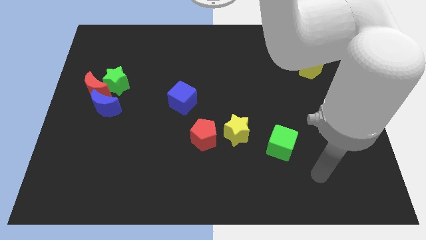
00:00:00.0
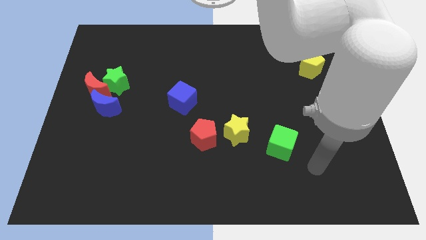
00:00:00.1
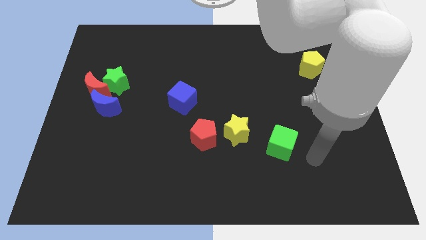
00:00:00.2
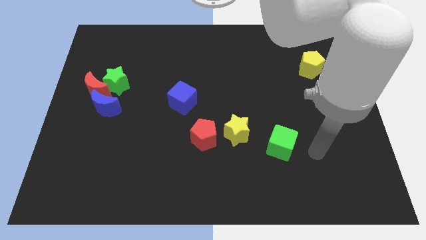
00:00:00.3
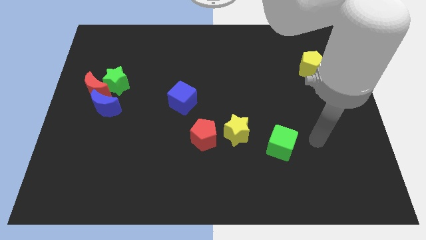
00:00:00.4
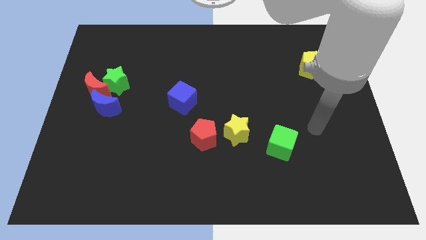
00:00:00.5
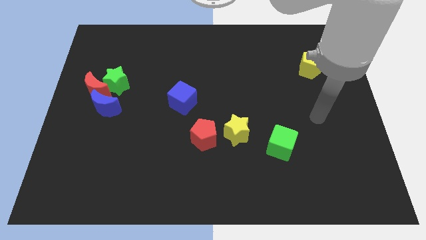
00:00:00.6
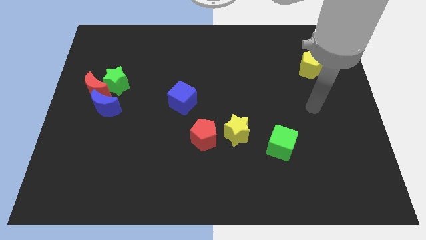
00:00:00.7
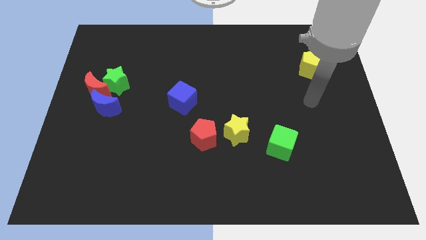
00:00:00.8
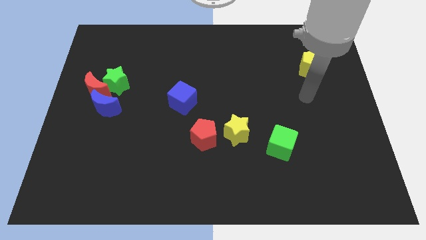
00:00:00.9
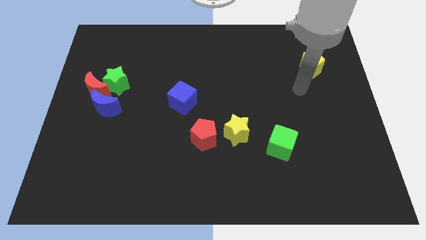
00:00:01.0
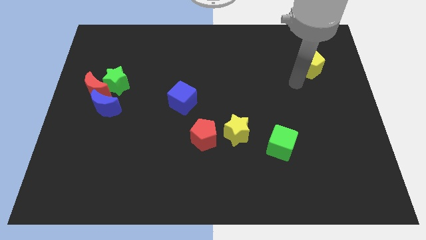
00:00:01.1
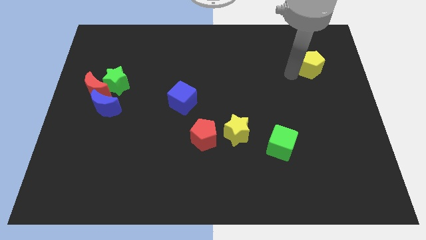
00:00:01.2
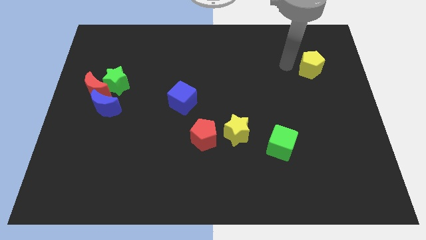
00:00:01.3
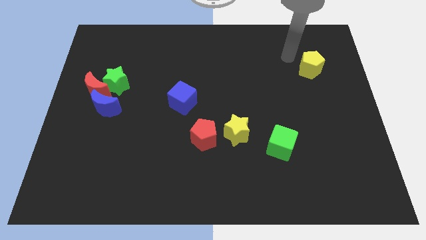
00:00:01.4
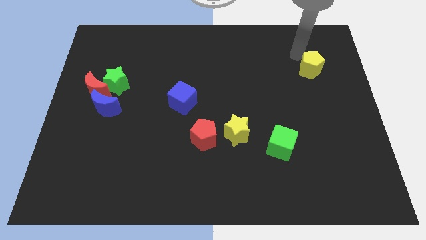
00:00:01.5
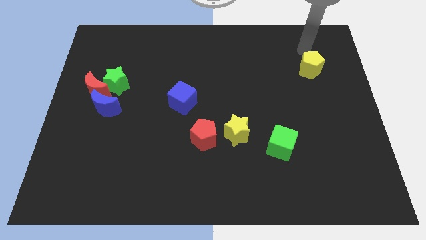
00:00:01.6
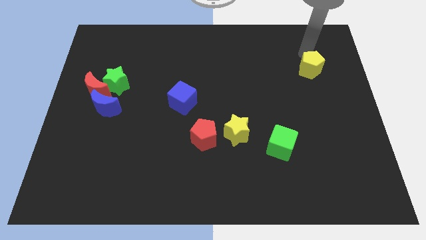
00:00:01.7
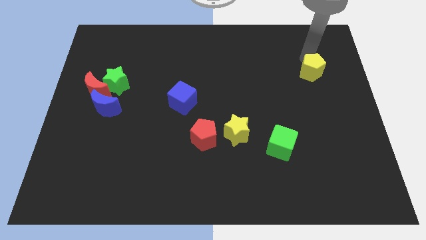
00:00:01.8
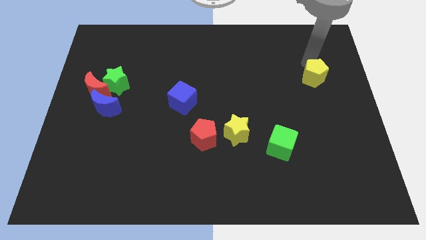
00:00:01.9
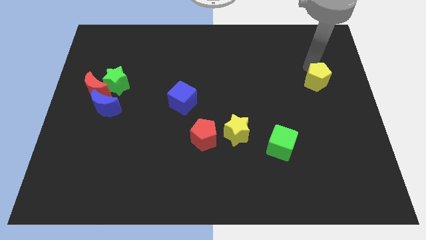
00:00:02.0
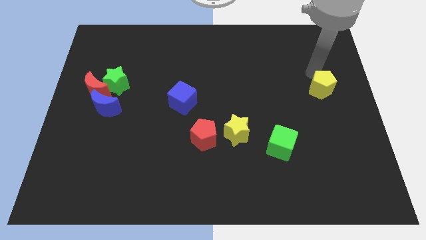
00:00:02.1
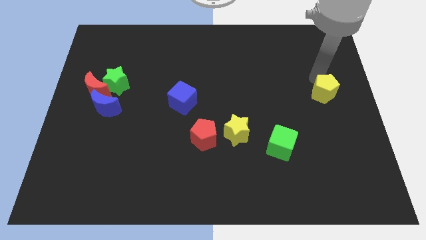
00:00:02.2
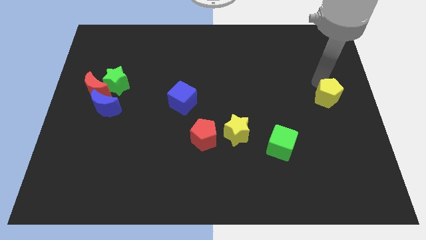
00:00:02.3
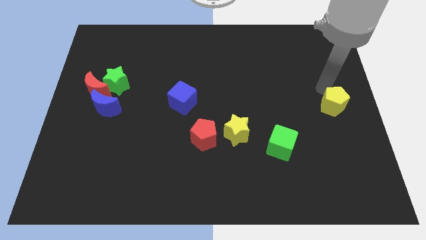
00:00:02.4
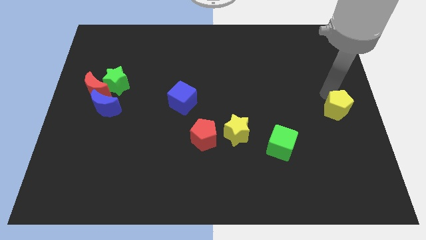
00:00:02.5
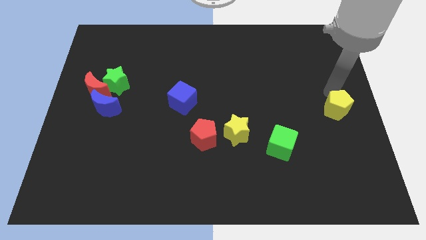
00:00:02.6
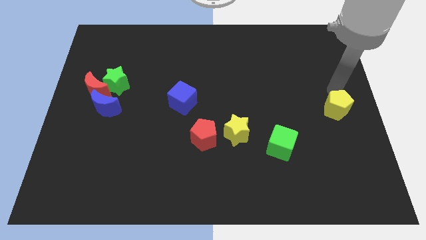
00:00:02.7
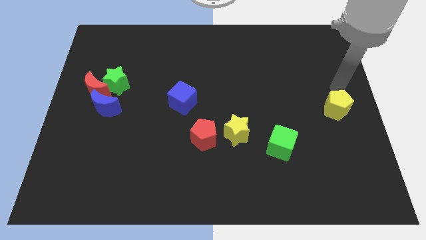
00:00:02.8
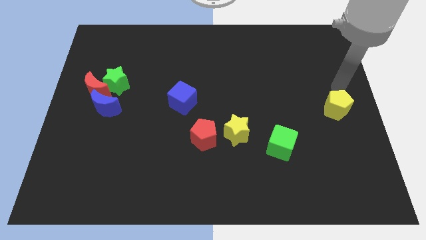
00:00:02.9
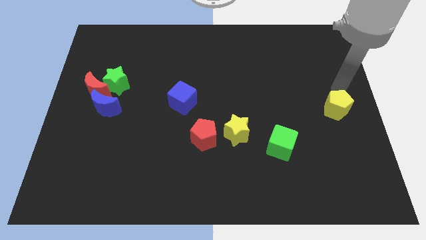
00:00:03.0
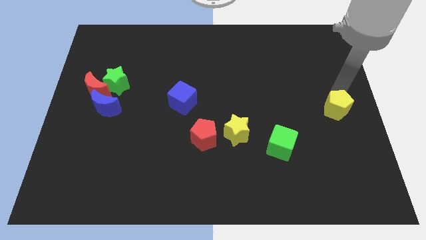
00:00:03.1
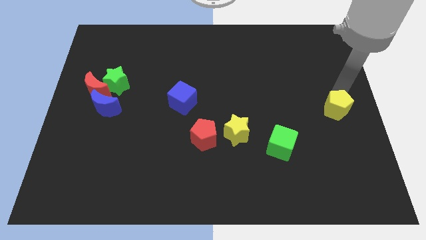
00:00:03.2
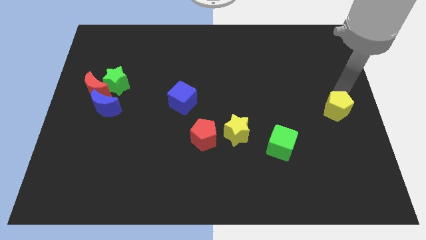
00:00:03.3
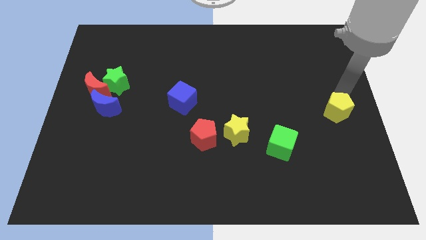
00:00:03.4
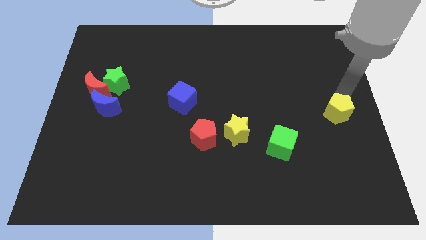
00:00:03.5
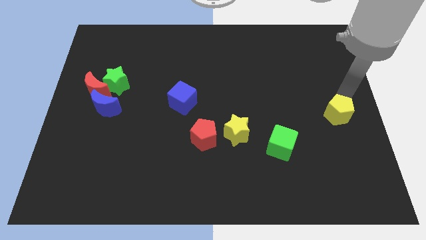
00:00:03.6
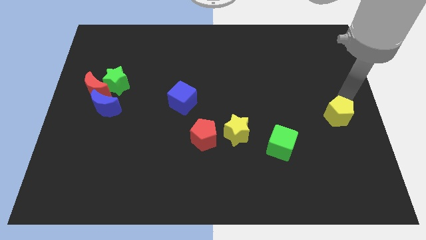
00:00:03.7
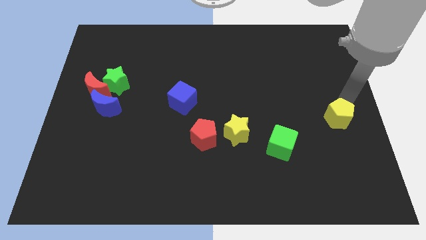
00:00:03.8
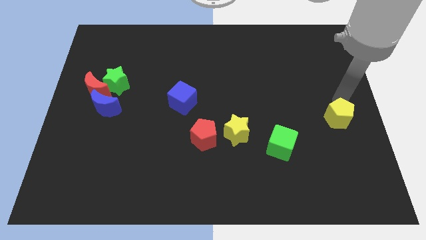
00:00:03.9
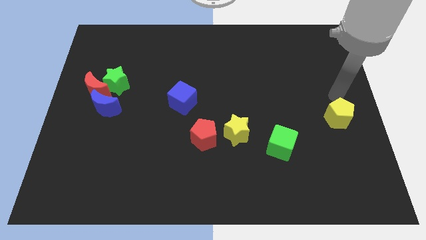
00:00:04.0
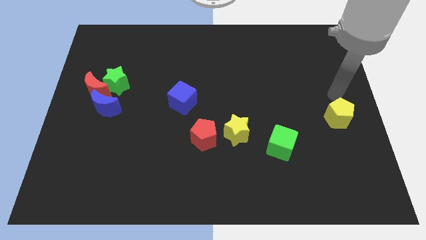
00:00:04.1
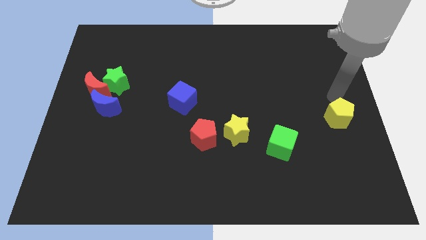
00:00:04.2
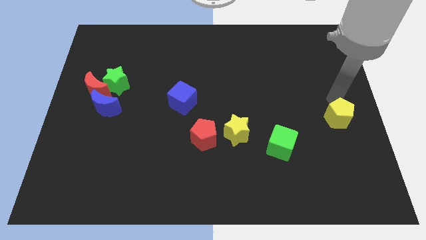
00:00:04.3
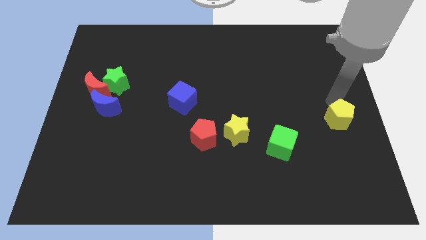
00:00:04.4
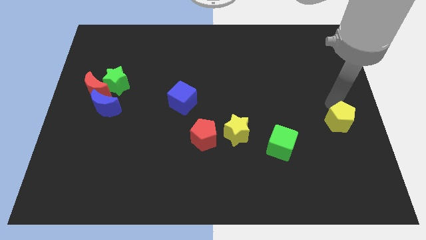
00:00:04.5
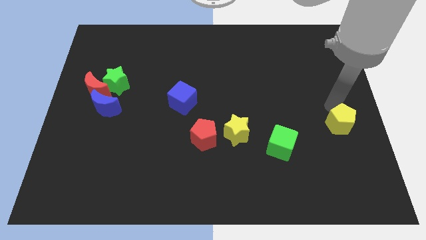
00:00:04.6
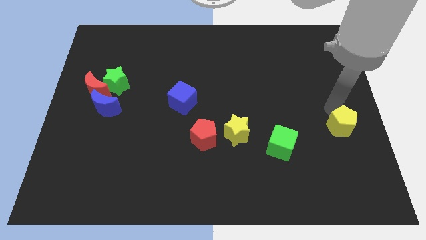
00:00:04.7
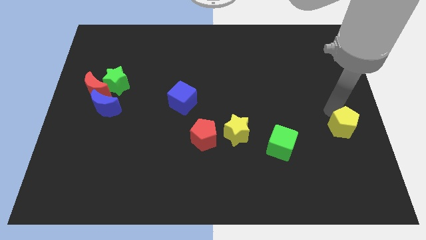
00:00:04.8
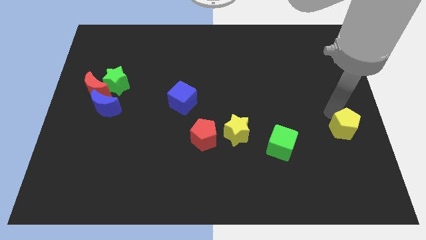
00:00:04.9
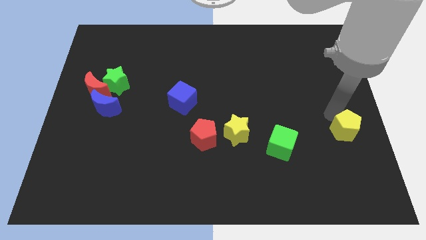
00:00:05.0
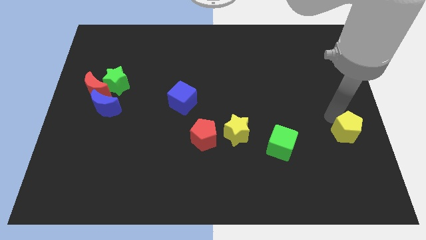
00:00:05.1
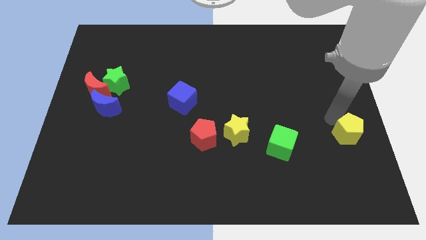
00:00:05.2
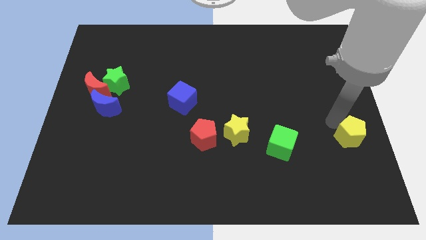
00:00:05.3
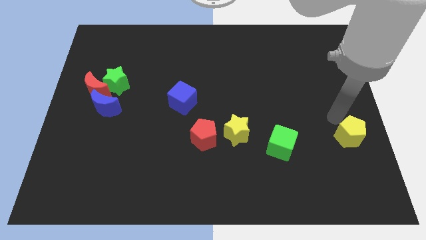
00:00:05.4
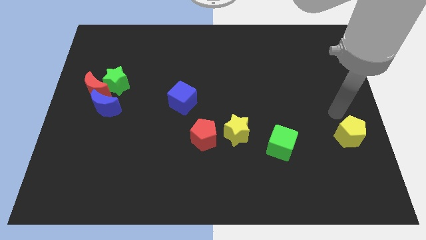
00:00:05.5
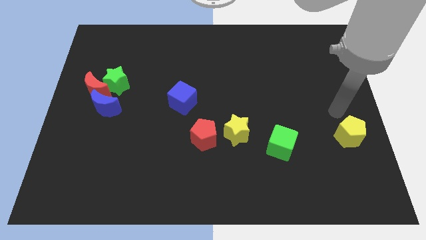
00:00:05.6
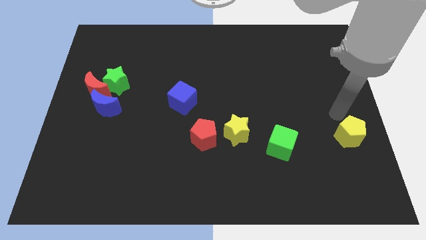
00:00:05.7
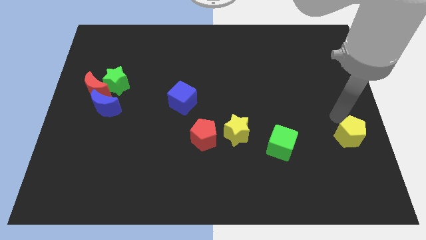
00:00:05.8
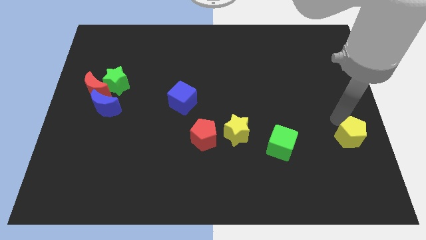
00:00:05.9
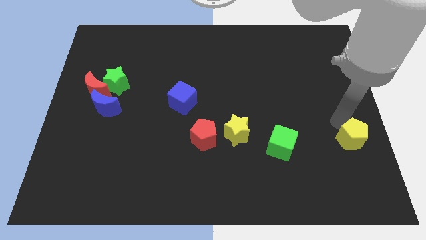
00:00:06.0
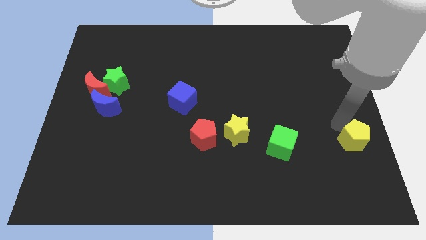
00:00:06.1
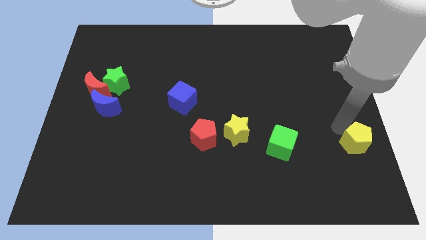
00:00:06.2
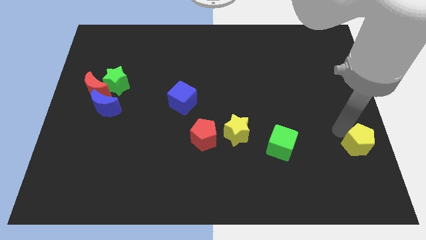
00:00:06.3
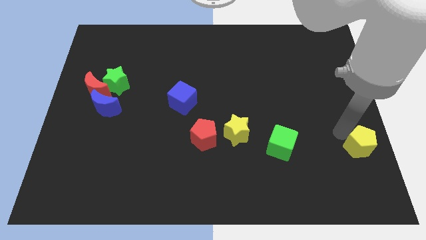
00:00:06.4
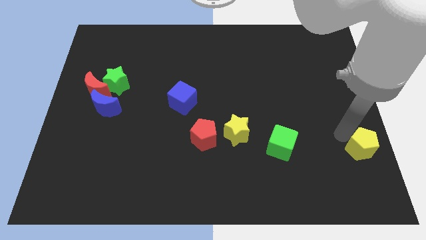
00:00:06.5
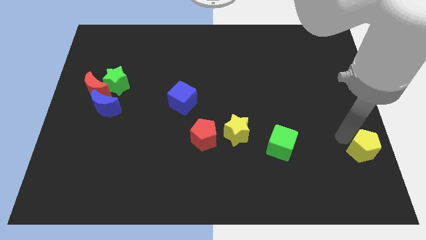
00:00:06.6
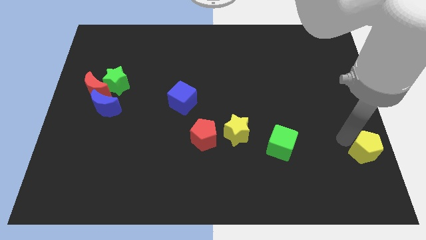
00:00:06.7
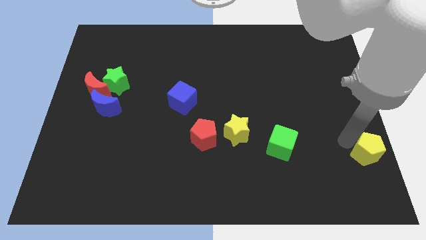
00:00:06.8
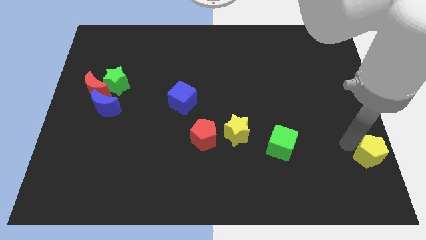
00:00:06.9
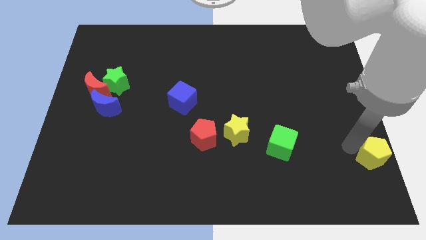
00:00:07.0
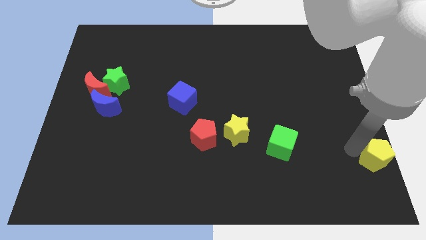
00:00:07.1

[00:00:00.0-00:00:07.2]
move the yellow pentagon to the bottom right of the board
